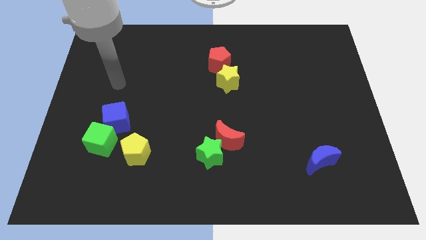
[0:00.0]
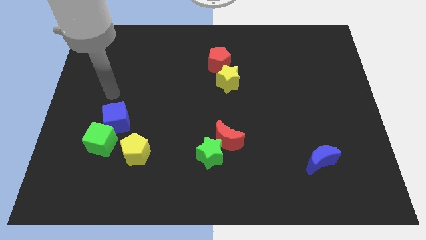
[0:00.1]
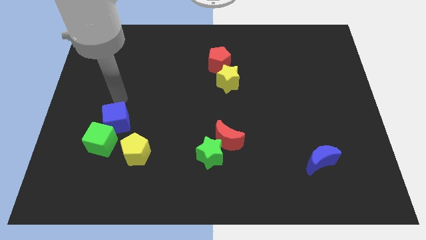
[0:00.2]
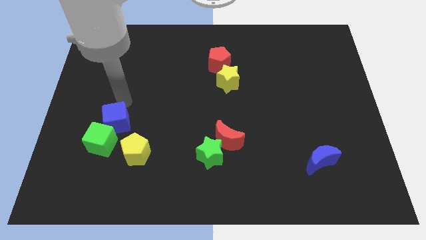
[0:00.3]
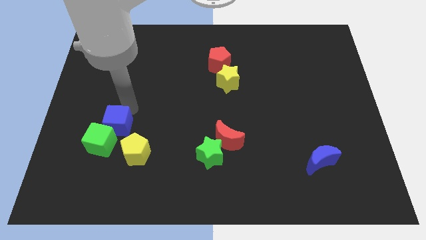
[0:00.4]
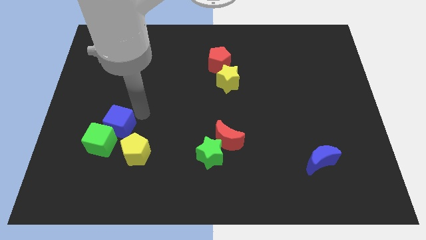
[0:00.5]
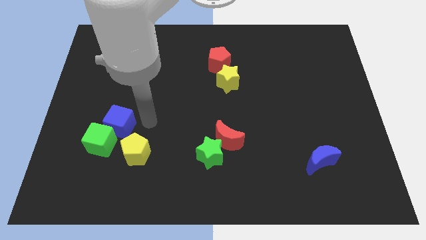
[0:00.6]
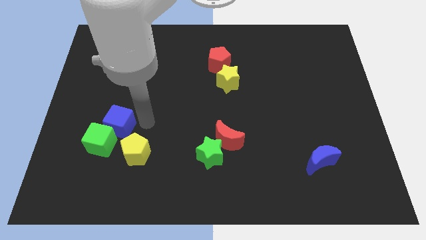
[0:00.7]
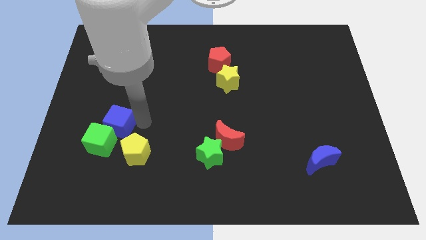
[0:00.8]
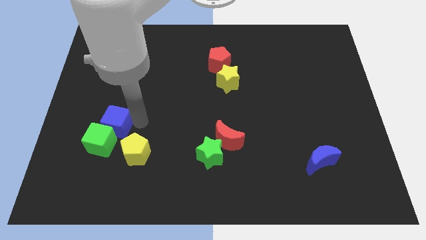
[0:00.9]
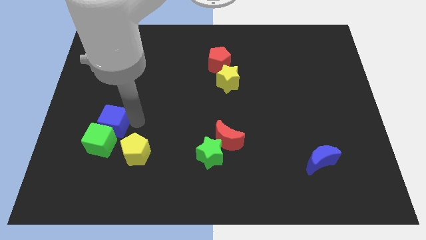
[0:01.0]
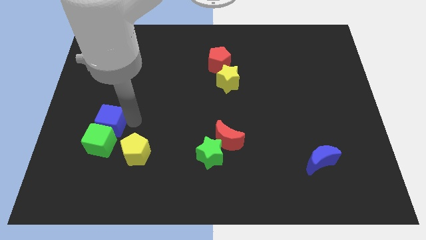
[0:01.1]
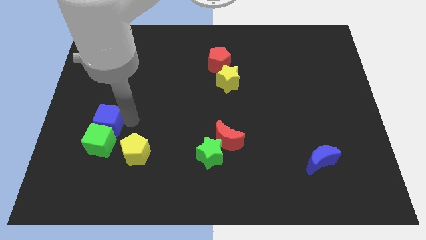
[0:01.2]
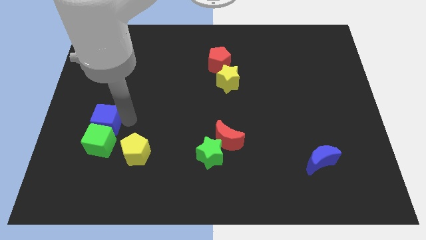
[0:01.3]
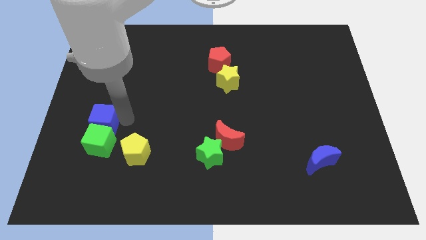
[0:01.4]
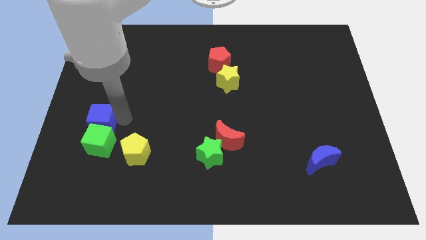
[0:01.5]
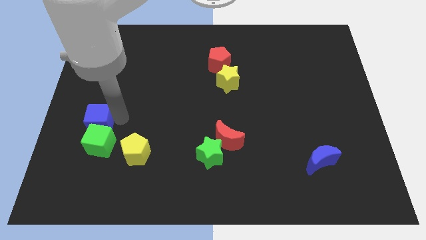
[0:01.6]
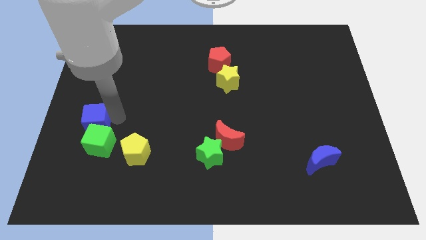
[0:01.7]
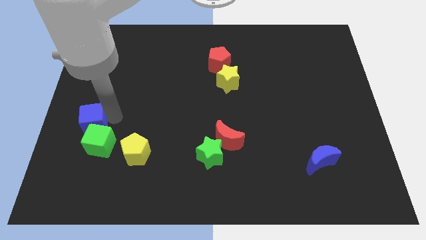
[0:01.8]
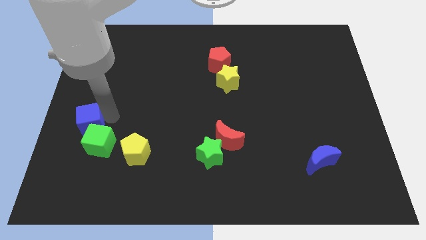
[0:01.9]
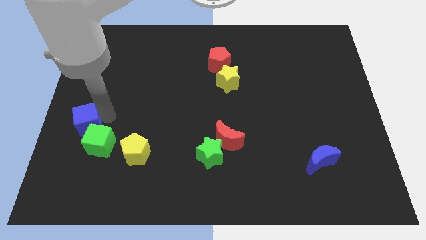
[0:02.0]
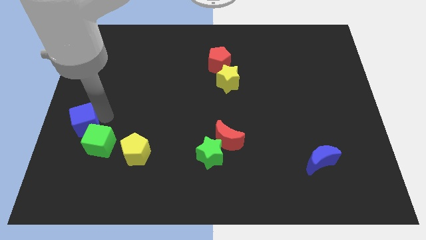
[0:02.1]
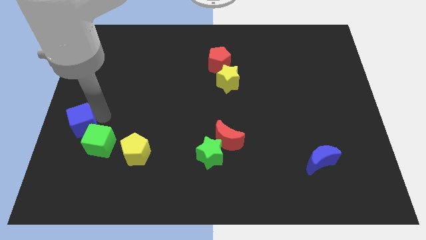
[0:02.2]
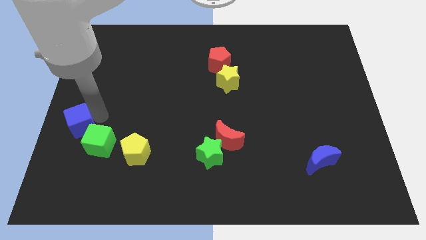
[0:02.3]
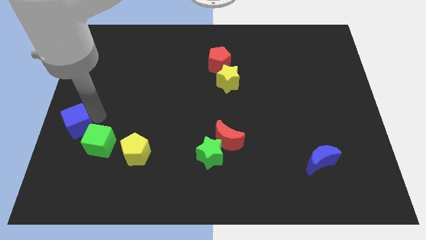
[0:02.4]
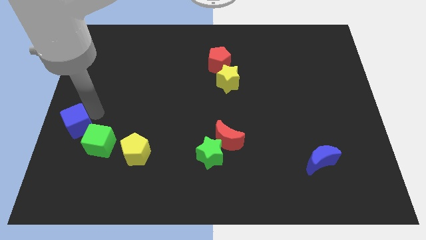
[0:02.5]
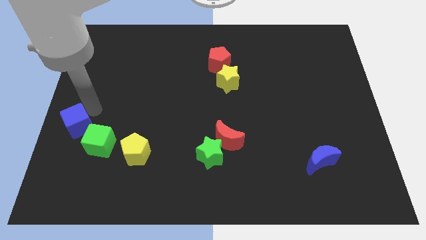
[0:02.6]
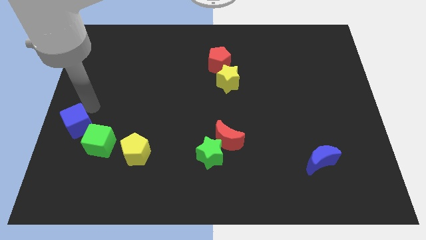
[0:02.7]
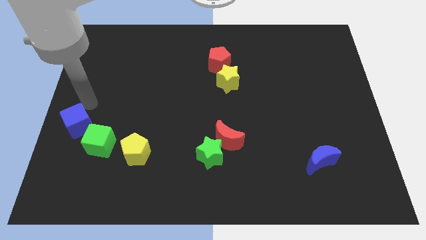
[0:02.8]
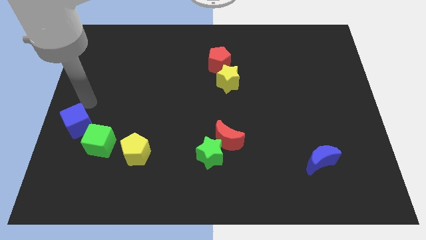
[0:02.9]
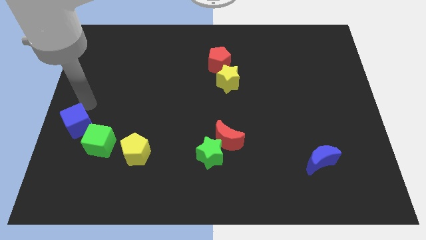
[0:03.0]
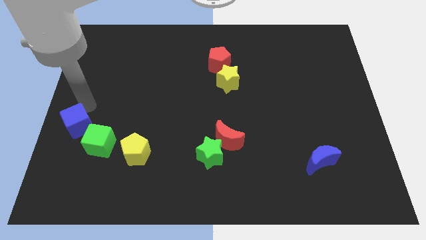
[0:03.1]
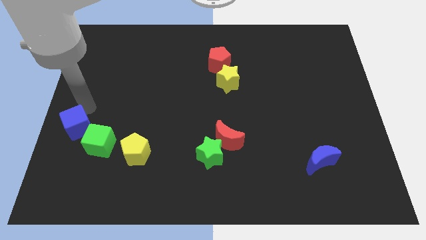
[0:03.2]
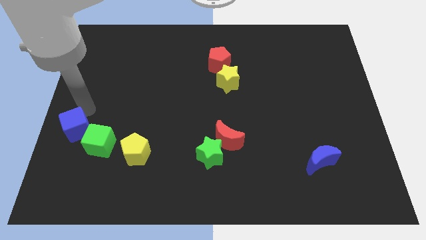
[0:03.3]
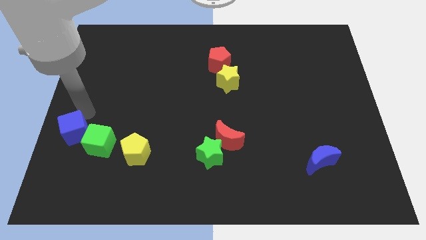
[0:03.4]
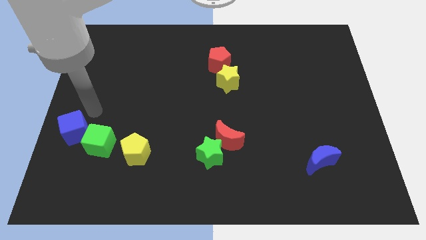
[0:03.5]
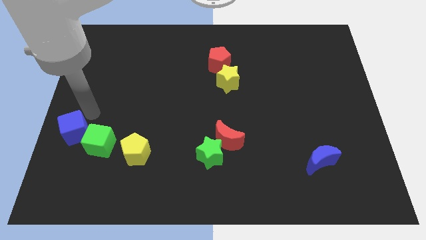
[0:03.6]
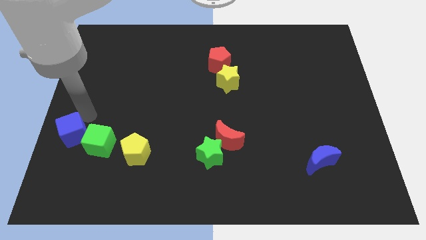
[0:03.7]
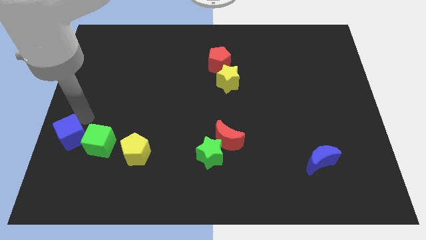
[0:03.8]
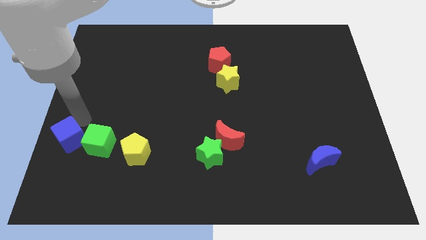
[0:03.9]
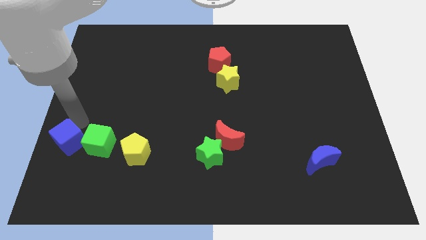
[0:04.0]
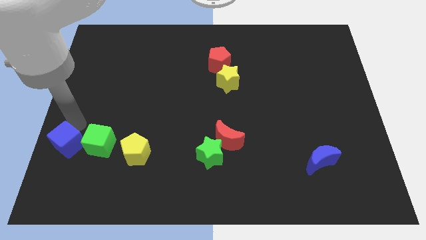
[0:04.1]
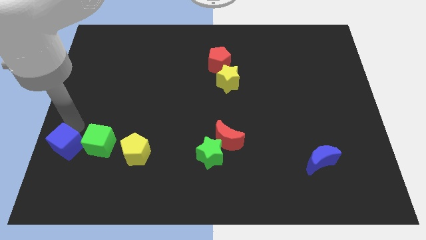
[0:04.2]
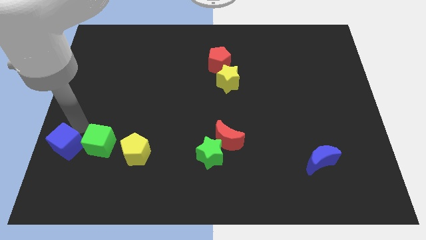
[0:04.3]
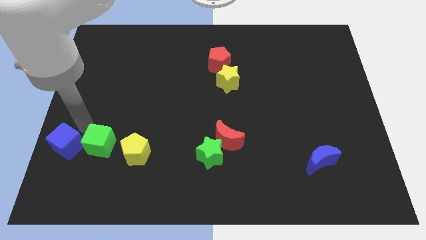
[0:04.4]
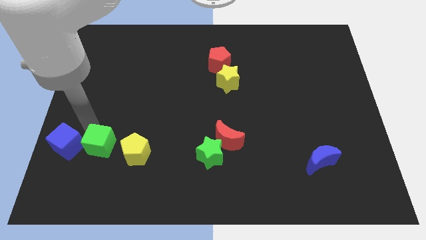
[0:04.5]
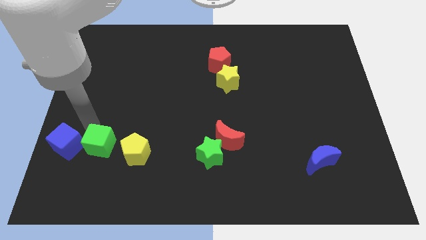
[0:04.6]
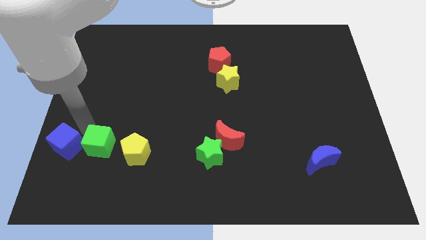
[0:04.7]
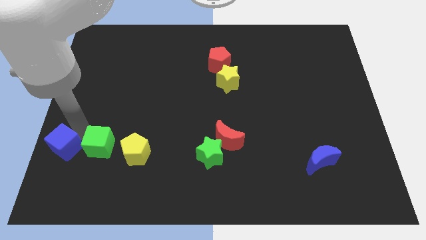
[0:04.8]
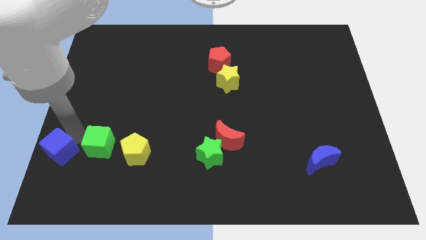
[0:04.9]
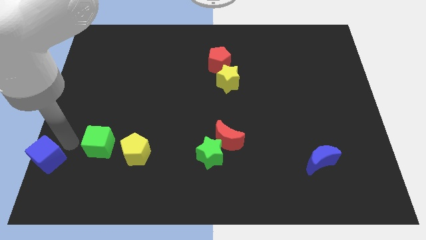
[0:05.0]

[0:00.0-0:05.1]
push the blue cube to the bottom left corner

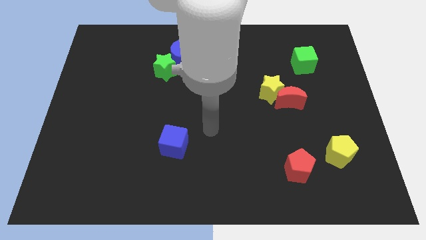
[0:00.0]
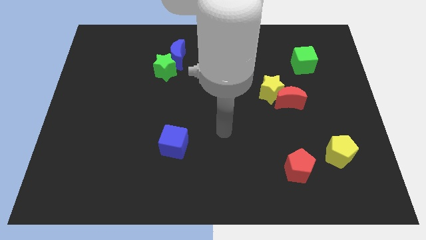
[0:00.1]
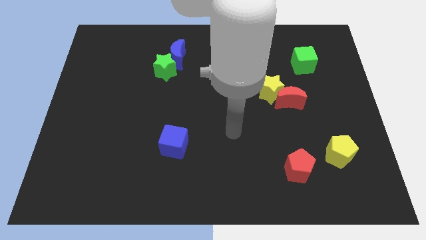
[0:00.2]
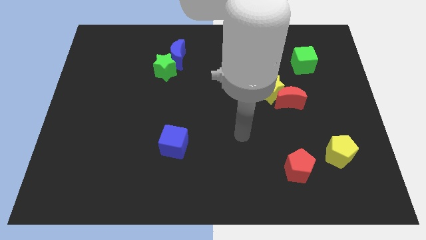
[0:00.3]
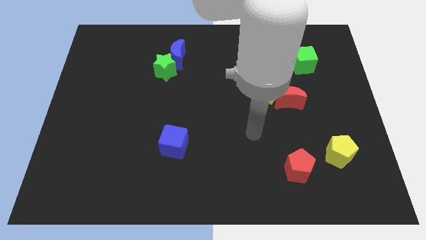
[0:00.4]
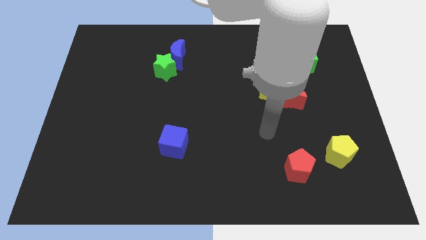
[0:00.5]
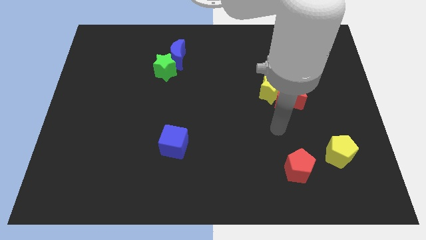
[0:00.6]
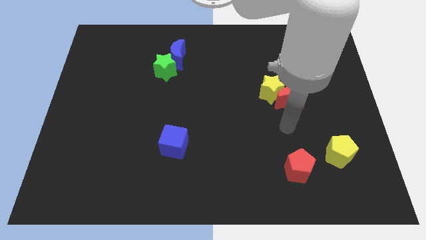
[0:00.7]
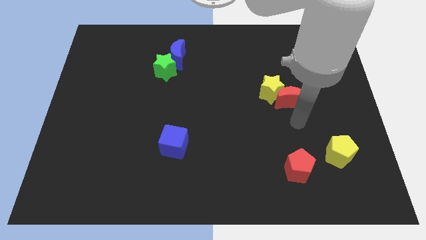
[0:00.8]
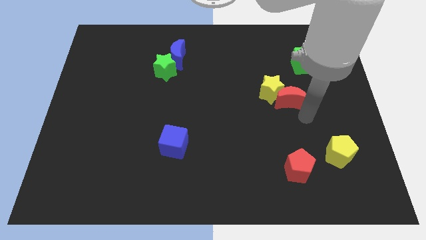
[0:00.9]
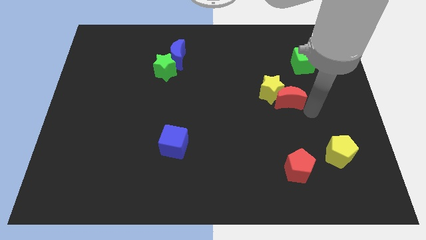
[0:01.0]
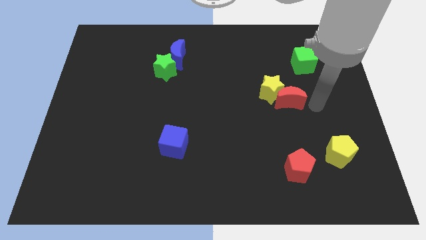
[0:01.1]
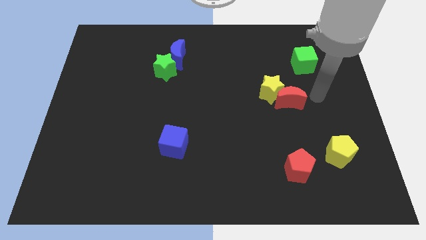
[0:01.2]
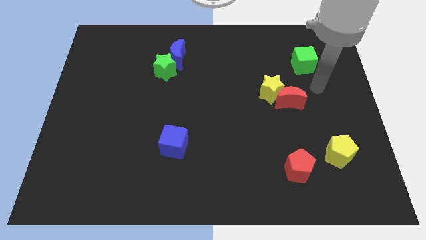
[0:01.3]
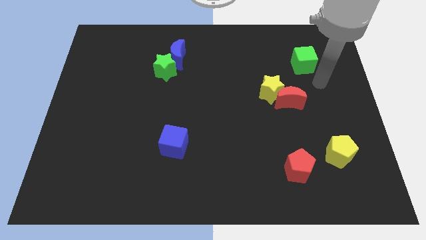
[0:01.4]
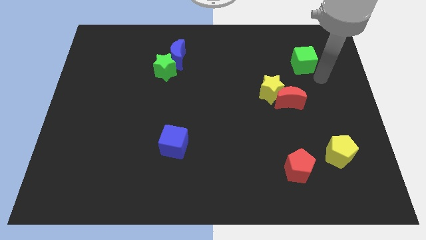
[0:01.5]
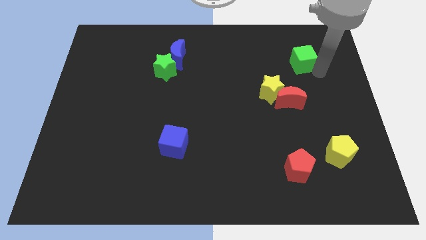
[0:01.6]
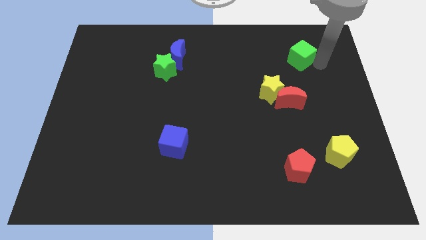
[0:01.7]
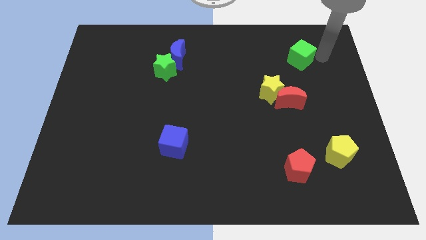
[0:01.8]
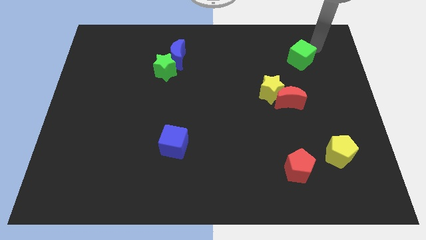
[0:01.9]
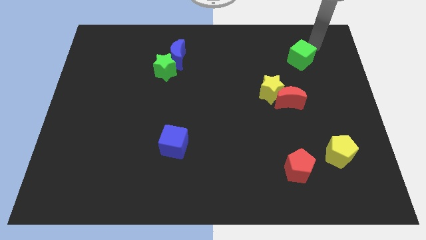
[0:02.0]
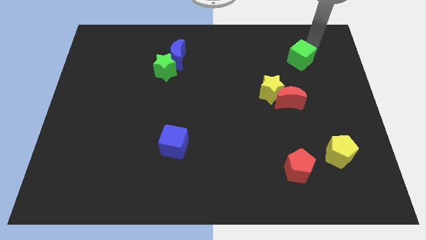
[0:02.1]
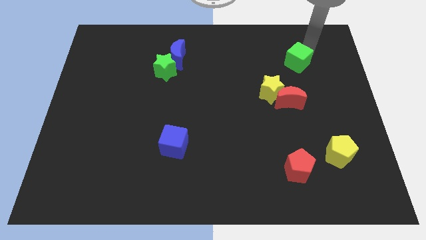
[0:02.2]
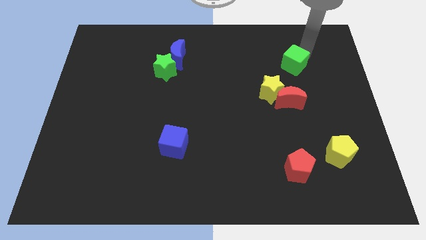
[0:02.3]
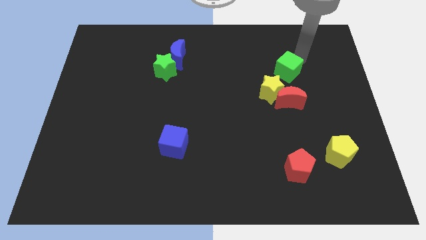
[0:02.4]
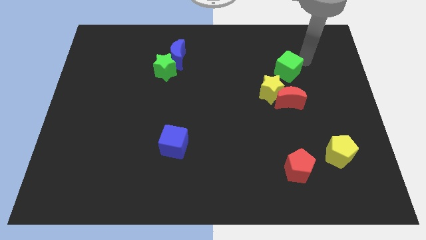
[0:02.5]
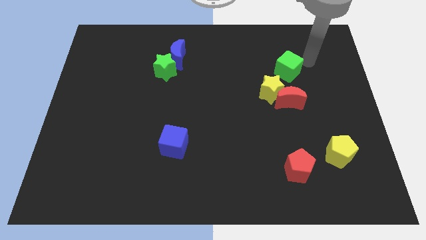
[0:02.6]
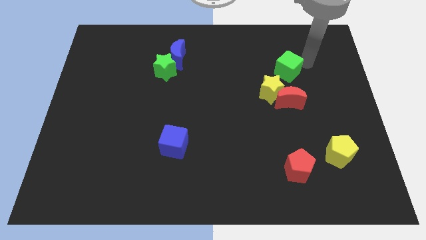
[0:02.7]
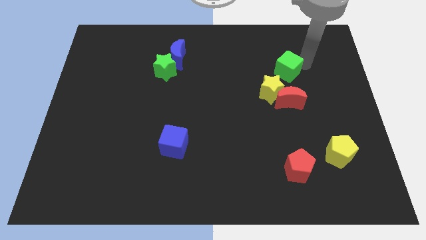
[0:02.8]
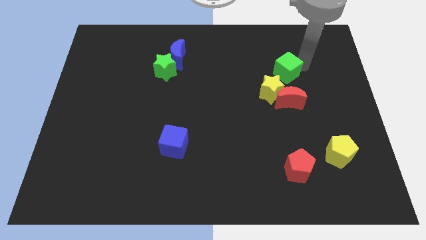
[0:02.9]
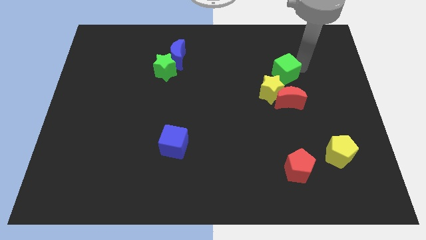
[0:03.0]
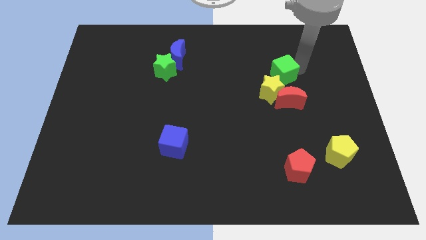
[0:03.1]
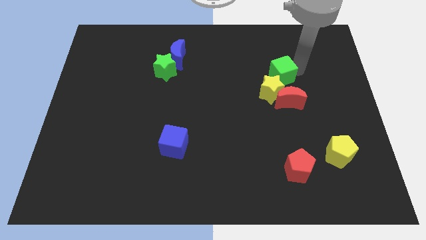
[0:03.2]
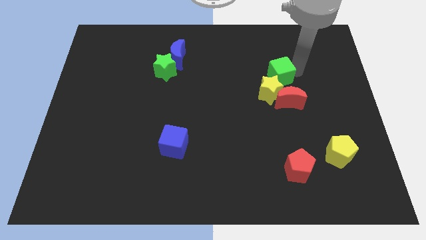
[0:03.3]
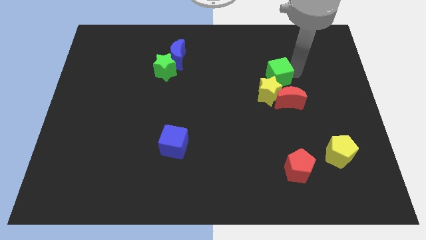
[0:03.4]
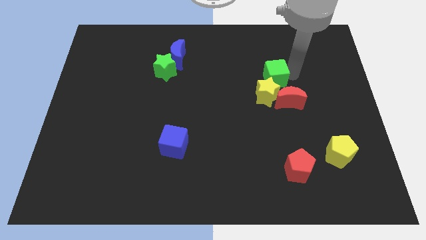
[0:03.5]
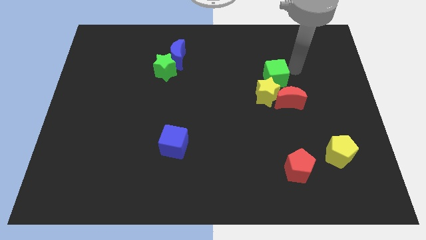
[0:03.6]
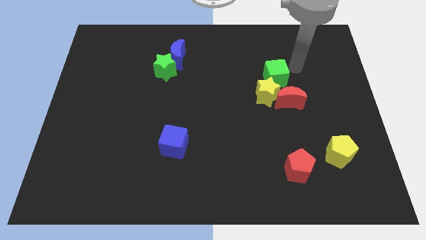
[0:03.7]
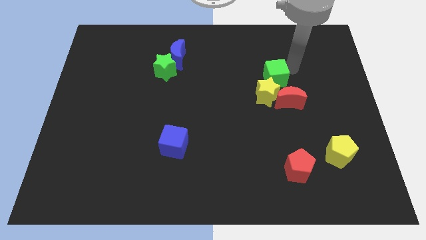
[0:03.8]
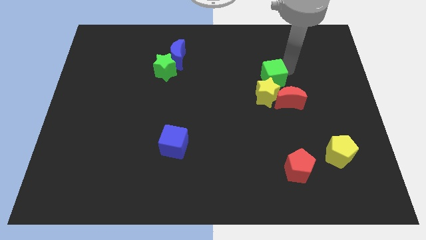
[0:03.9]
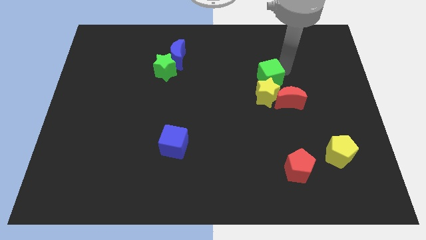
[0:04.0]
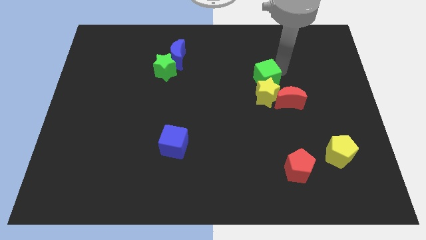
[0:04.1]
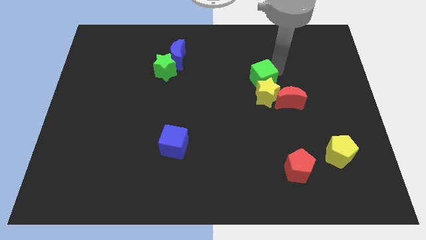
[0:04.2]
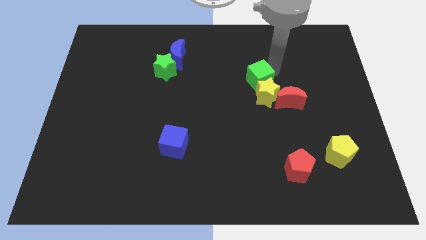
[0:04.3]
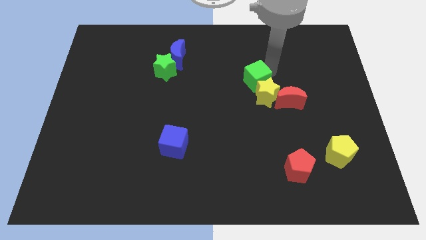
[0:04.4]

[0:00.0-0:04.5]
put the green cube to the center
